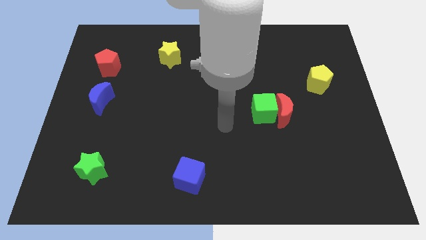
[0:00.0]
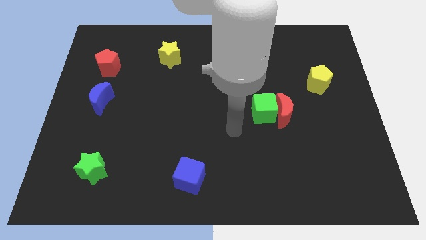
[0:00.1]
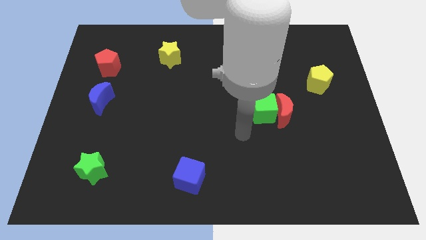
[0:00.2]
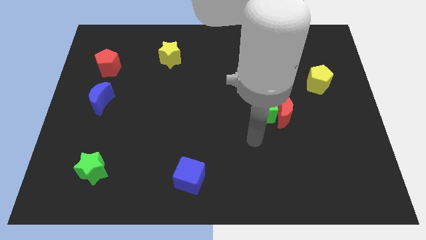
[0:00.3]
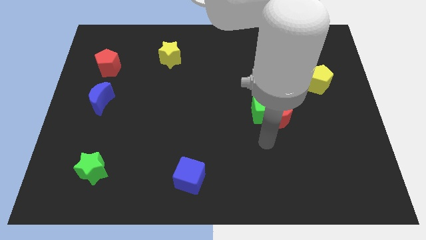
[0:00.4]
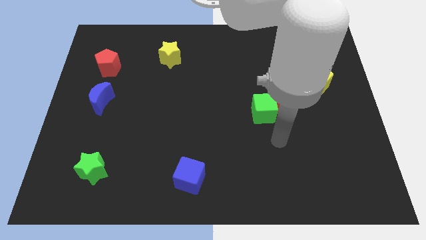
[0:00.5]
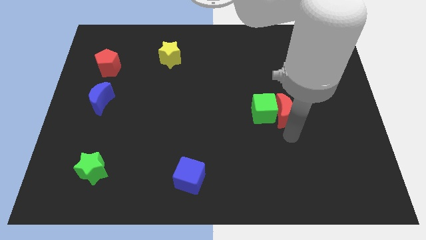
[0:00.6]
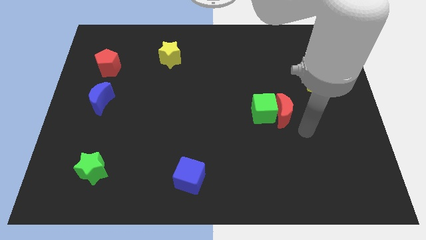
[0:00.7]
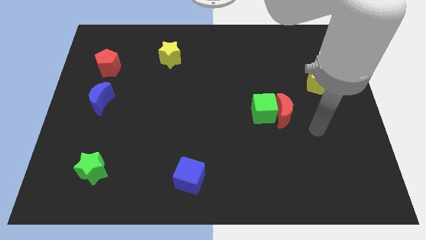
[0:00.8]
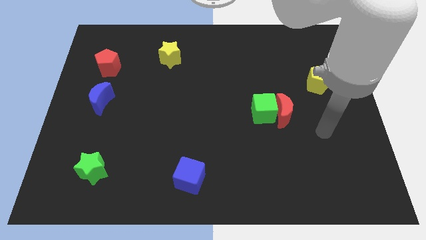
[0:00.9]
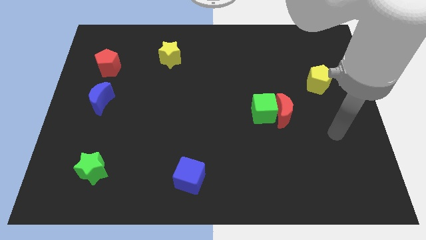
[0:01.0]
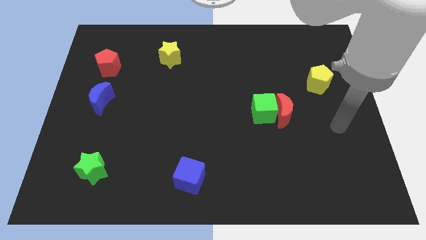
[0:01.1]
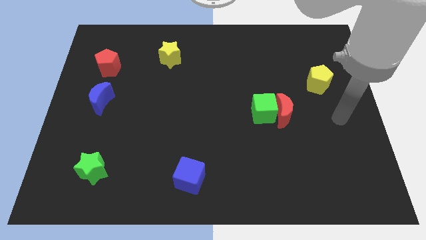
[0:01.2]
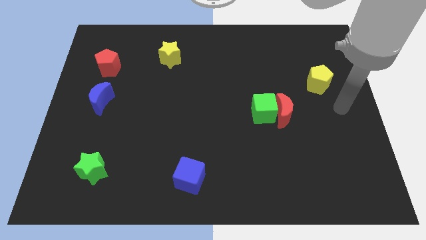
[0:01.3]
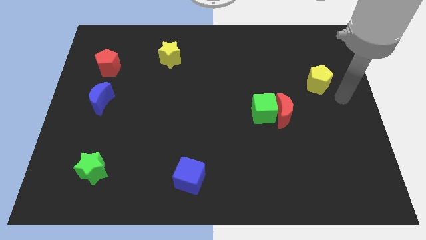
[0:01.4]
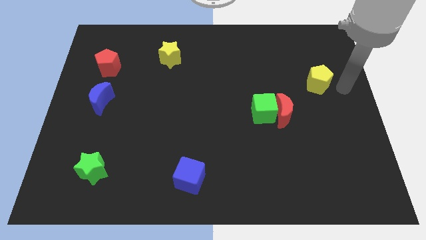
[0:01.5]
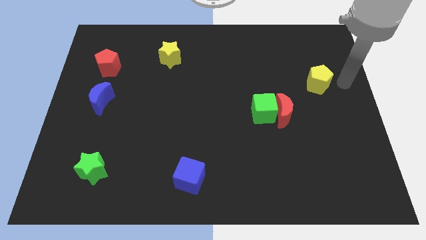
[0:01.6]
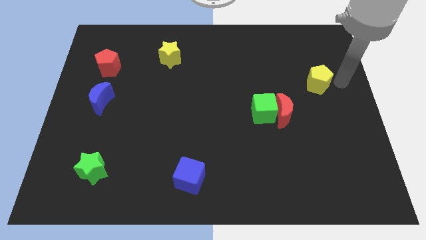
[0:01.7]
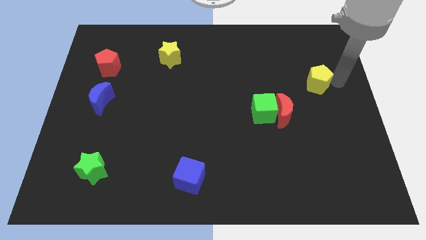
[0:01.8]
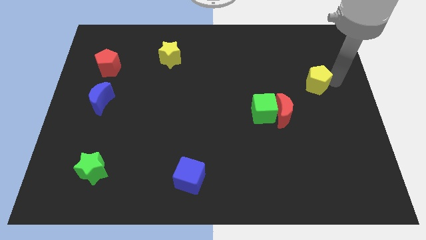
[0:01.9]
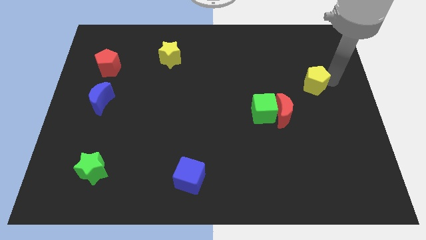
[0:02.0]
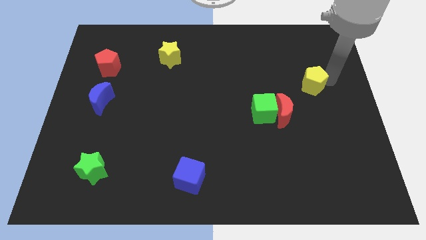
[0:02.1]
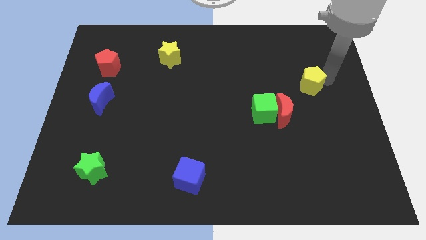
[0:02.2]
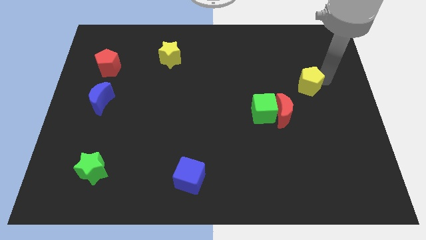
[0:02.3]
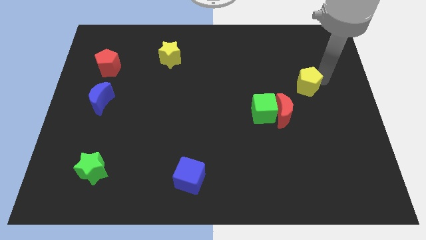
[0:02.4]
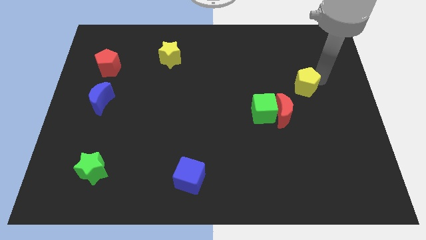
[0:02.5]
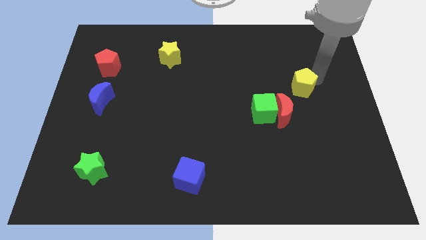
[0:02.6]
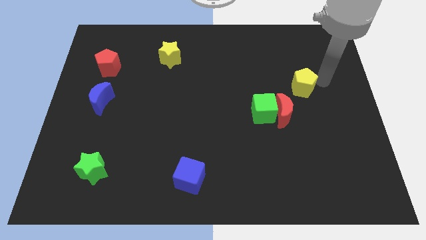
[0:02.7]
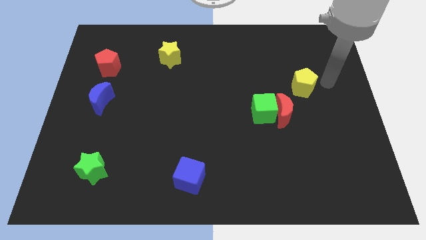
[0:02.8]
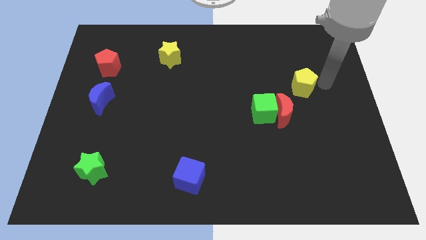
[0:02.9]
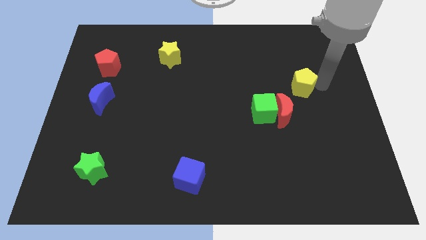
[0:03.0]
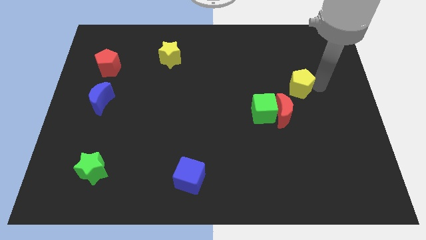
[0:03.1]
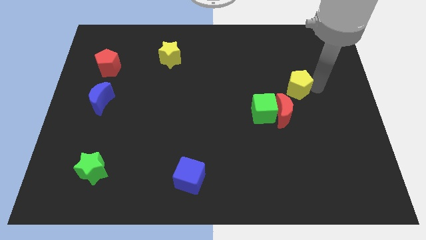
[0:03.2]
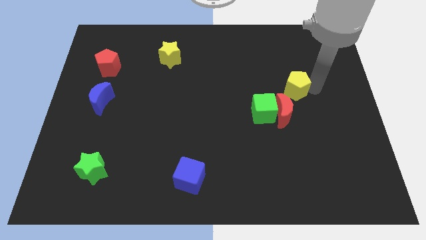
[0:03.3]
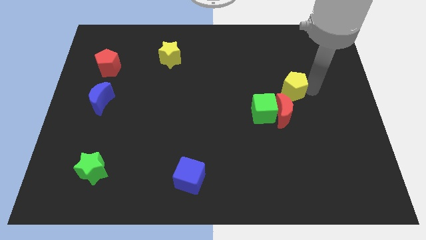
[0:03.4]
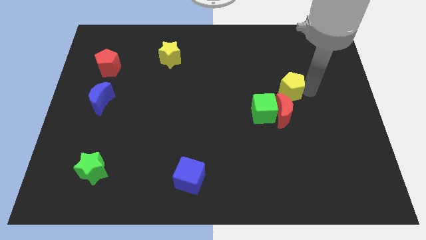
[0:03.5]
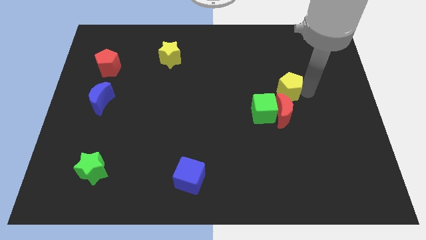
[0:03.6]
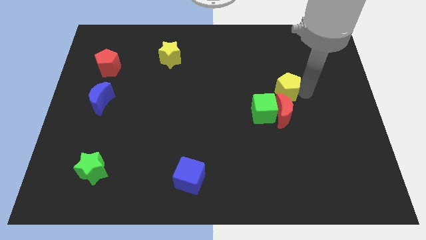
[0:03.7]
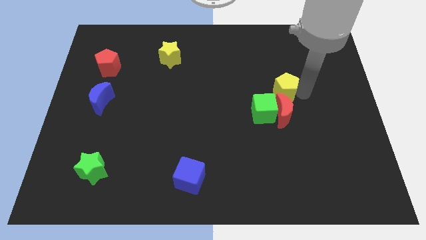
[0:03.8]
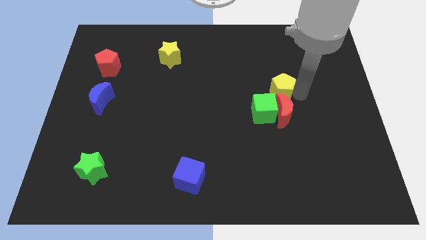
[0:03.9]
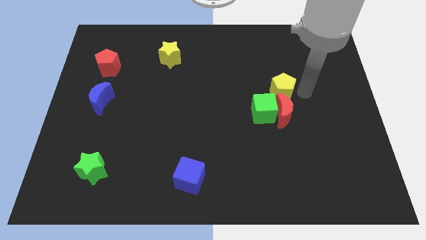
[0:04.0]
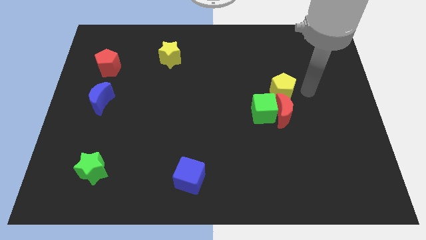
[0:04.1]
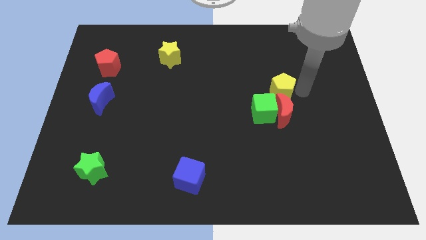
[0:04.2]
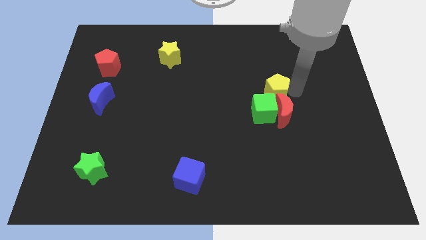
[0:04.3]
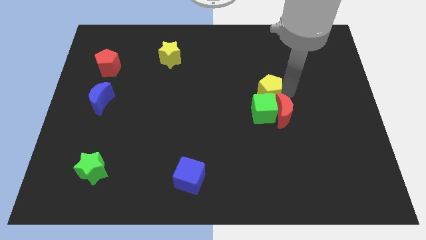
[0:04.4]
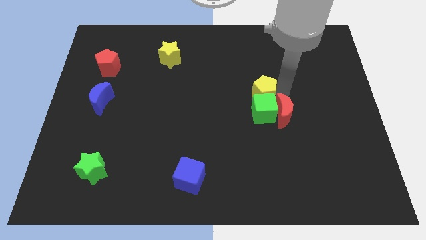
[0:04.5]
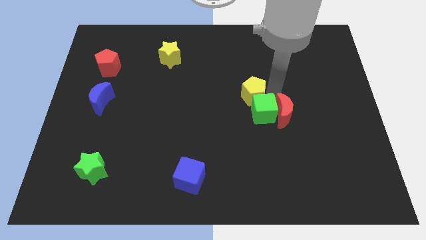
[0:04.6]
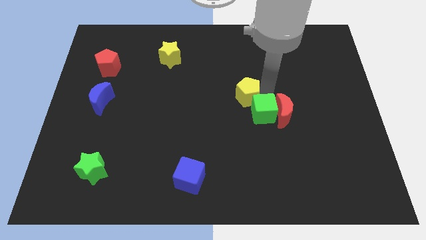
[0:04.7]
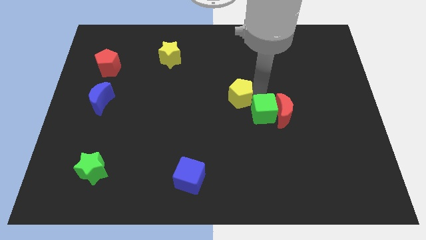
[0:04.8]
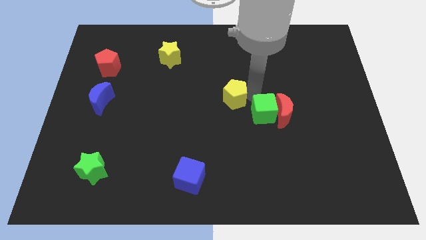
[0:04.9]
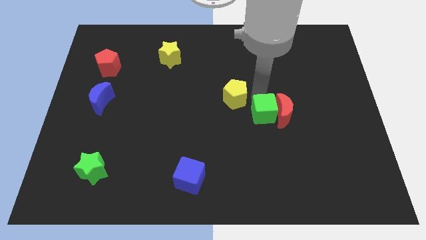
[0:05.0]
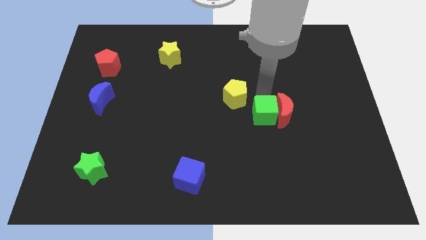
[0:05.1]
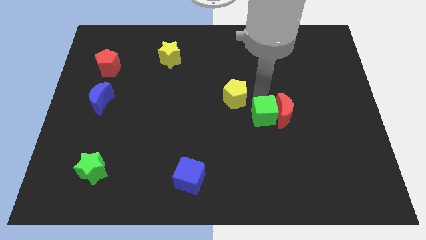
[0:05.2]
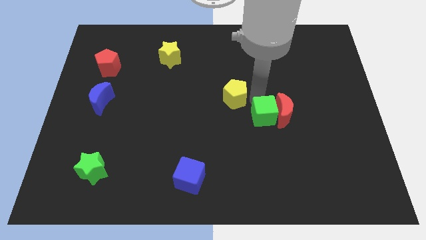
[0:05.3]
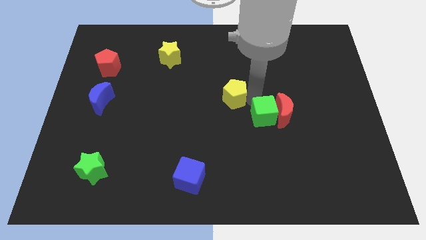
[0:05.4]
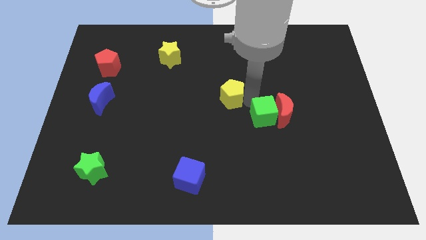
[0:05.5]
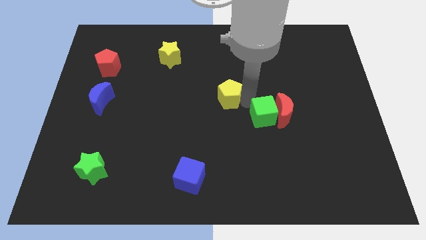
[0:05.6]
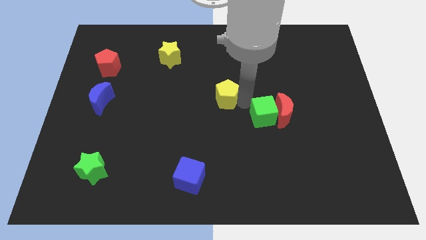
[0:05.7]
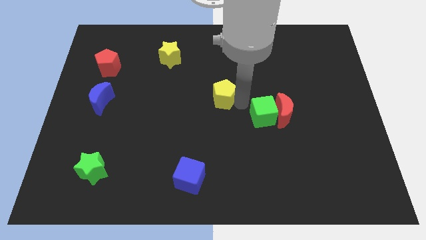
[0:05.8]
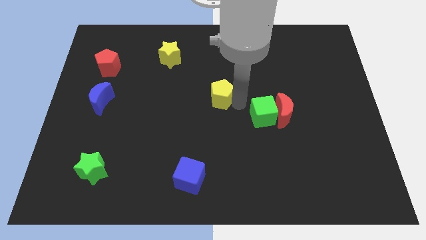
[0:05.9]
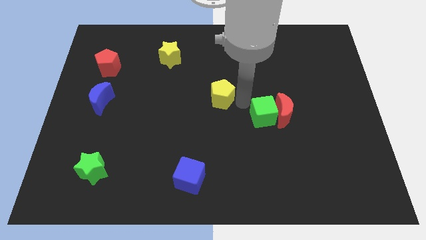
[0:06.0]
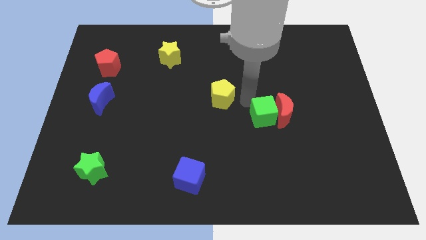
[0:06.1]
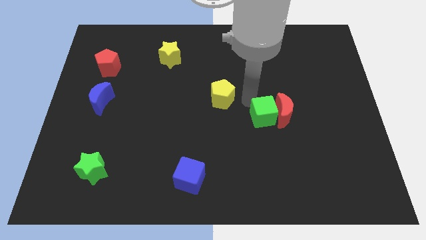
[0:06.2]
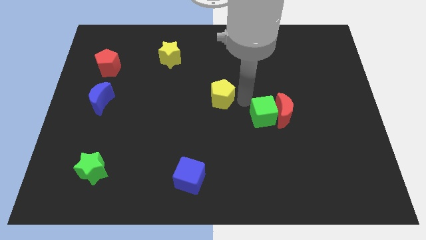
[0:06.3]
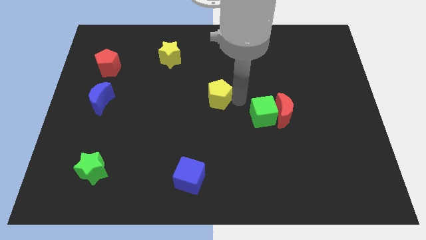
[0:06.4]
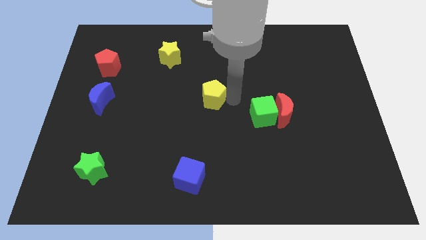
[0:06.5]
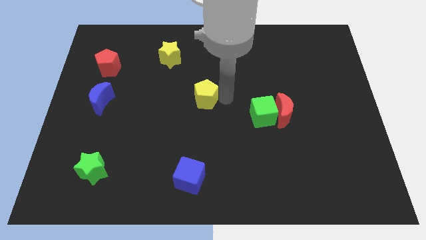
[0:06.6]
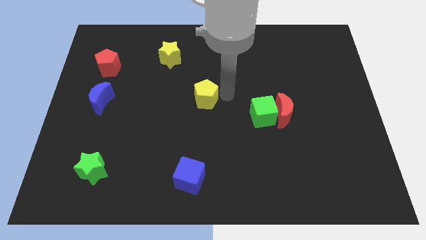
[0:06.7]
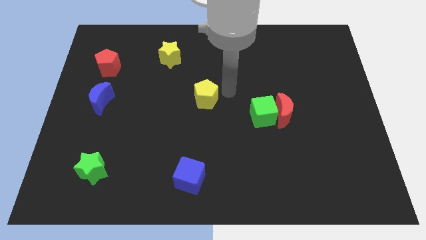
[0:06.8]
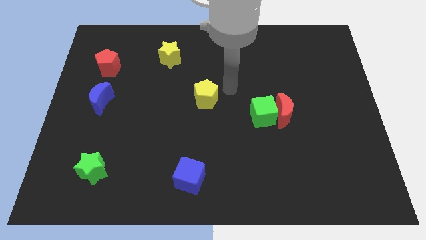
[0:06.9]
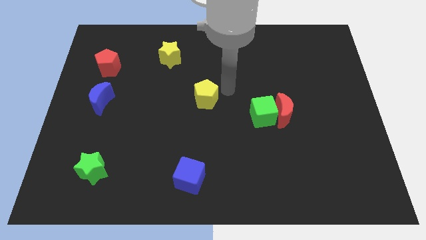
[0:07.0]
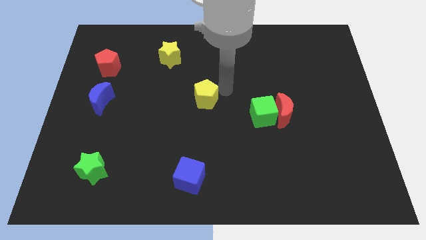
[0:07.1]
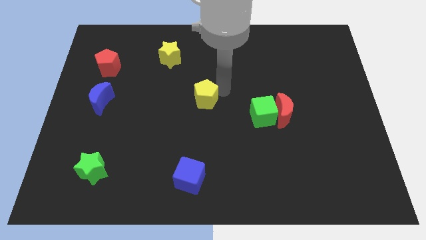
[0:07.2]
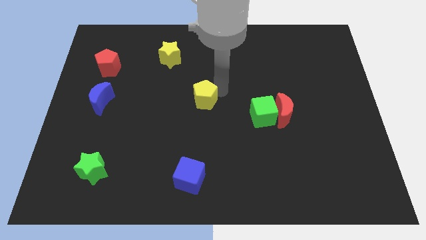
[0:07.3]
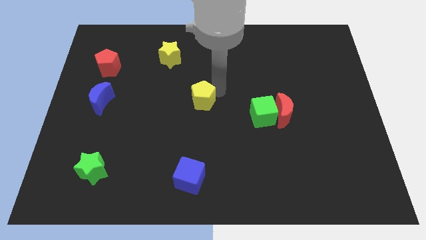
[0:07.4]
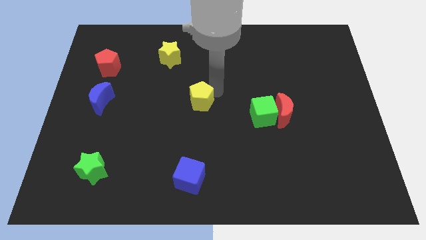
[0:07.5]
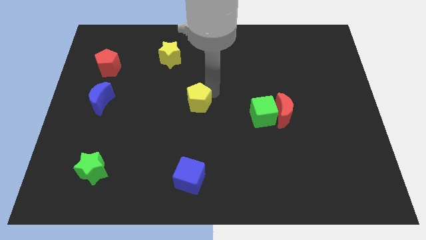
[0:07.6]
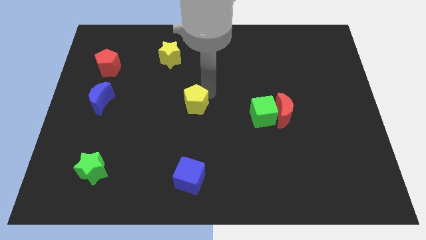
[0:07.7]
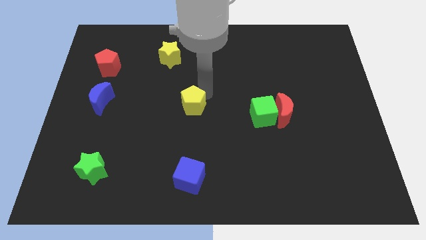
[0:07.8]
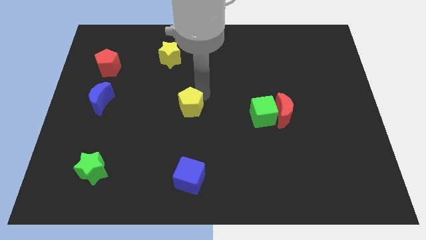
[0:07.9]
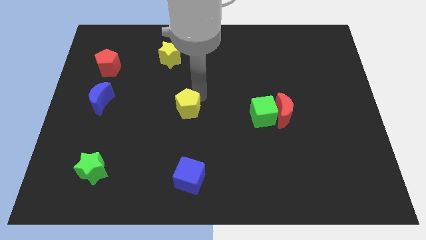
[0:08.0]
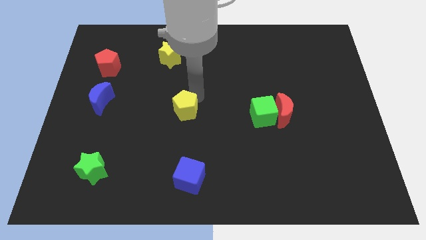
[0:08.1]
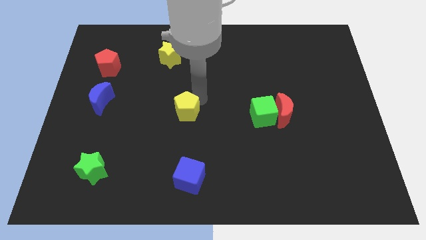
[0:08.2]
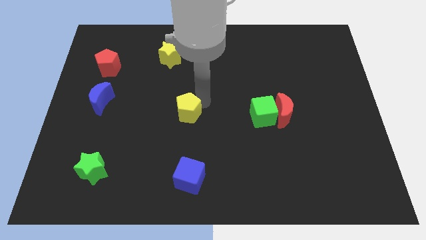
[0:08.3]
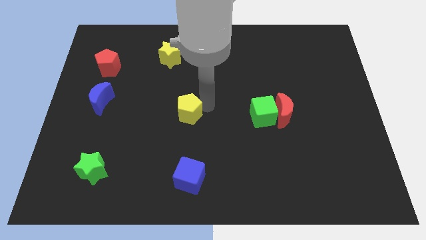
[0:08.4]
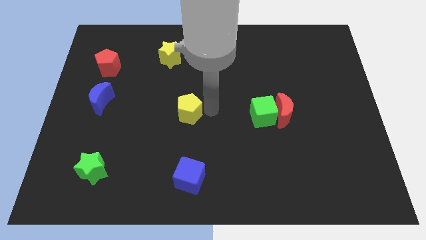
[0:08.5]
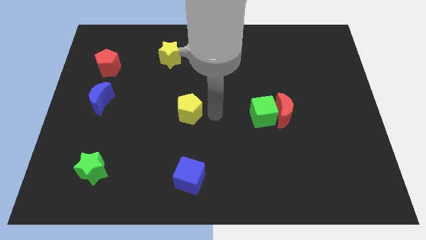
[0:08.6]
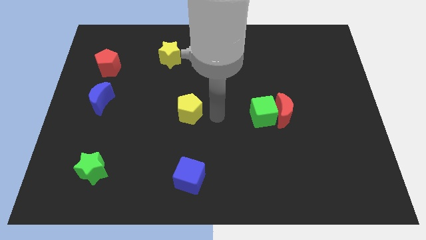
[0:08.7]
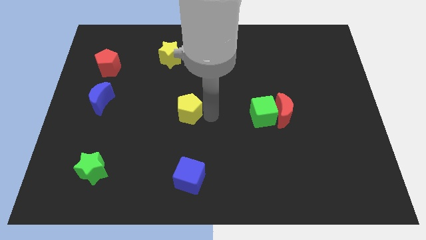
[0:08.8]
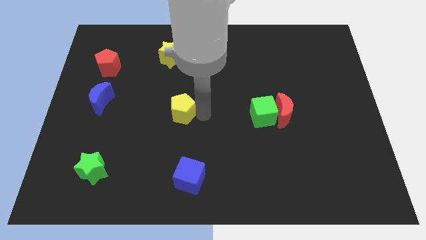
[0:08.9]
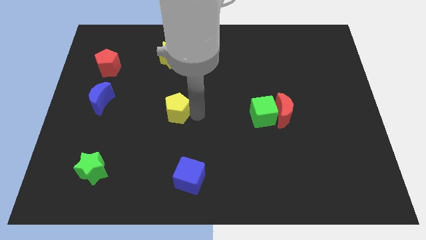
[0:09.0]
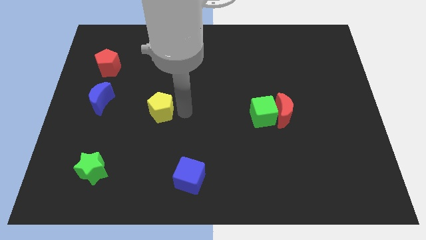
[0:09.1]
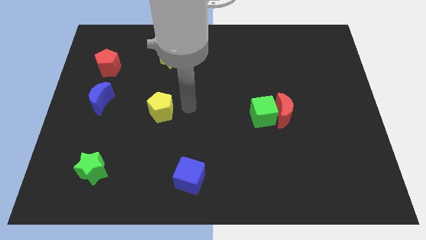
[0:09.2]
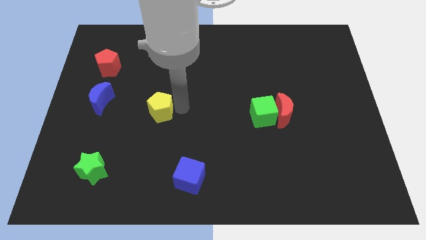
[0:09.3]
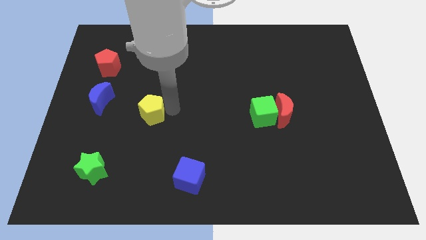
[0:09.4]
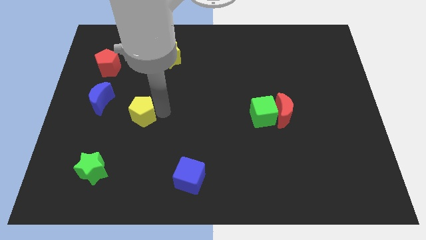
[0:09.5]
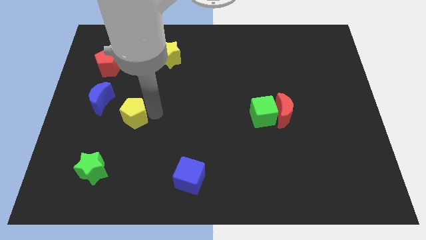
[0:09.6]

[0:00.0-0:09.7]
move the yellow pentagon to the bottom right of the blue moon
